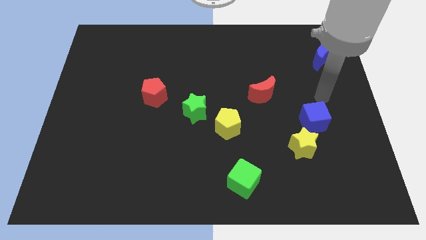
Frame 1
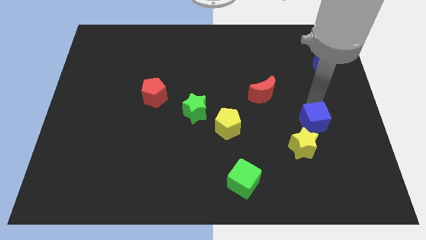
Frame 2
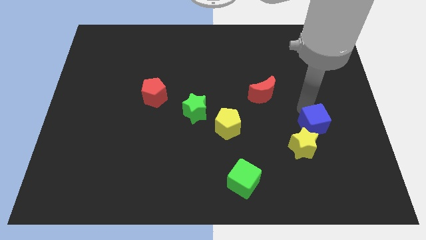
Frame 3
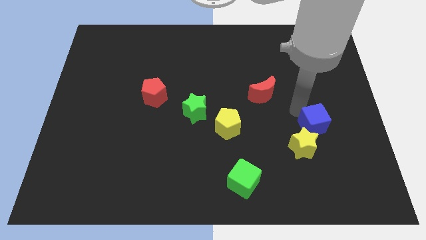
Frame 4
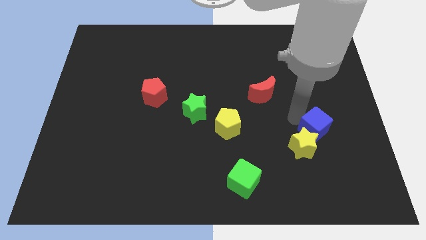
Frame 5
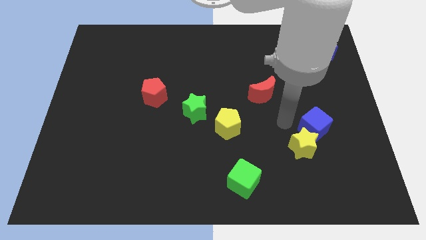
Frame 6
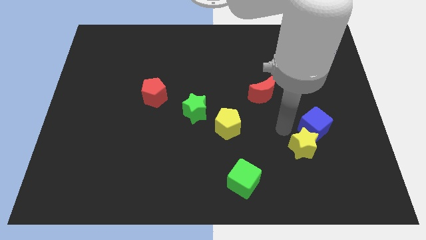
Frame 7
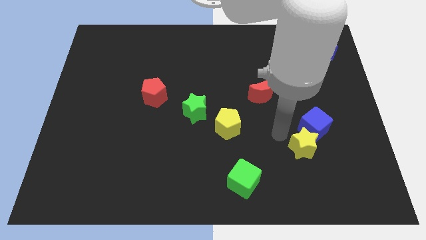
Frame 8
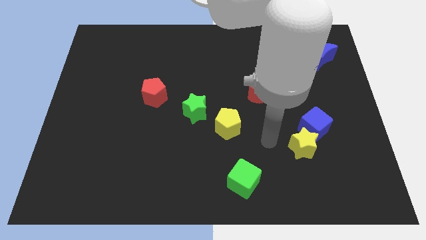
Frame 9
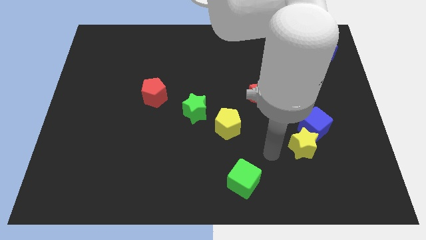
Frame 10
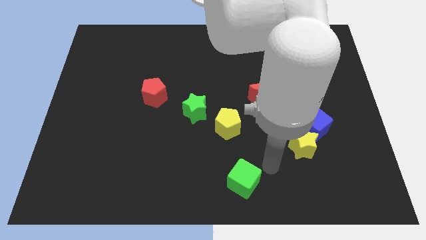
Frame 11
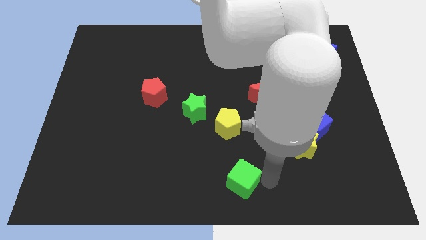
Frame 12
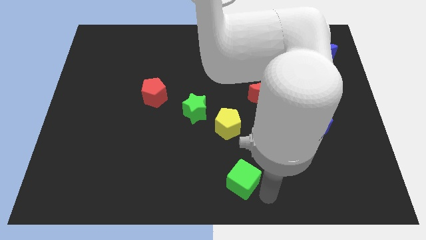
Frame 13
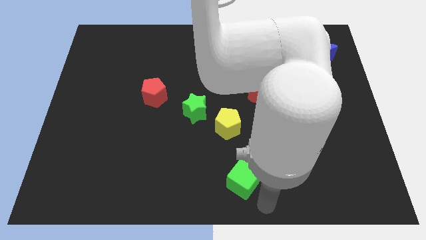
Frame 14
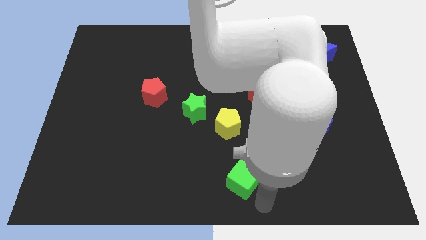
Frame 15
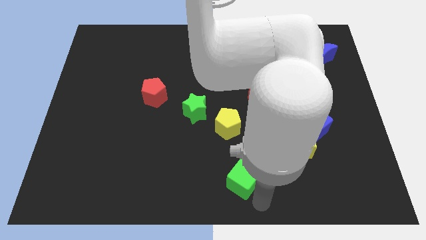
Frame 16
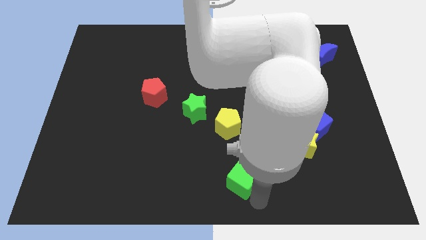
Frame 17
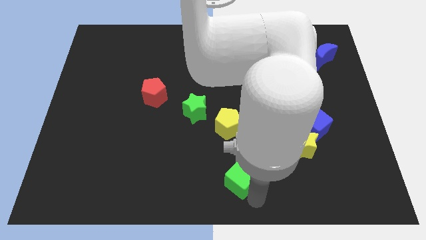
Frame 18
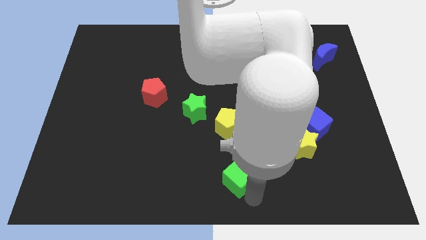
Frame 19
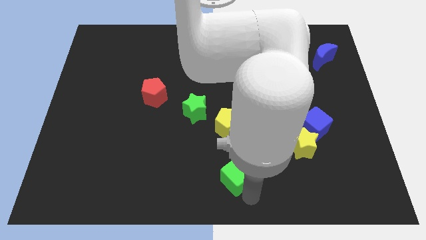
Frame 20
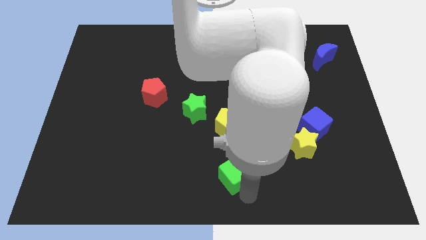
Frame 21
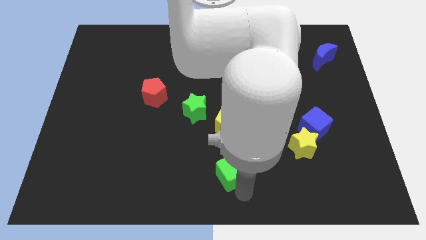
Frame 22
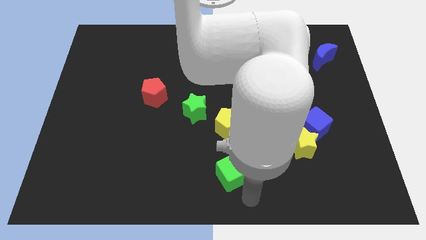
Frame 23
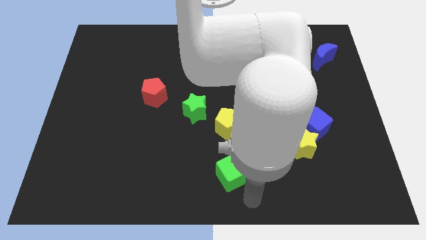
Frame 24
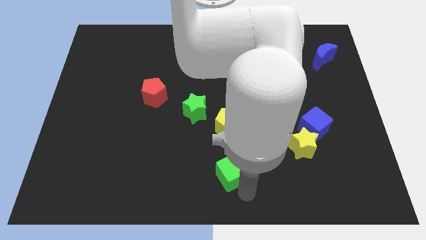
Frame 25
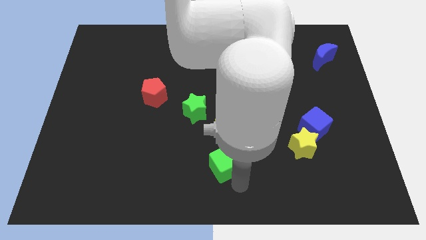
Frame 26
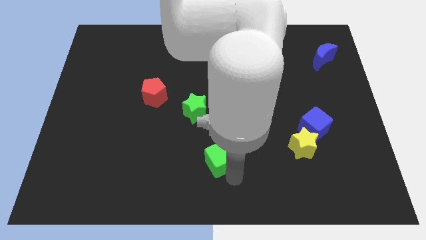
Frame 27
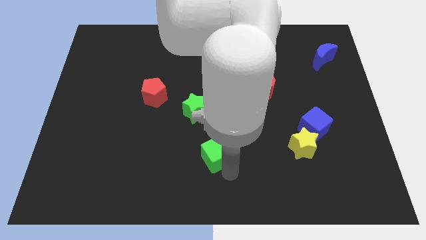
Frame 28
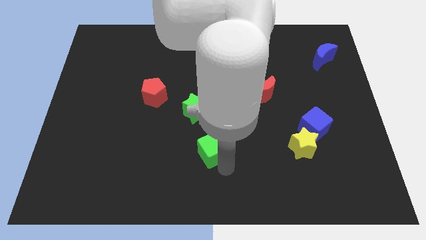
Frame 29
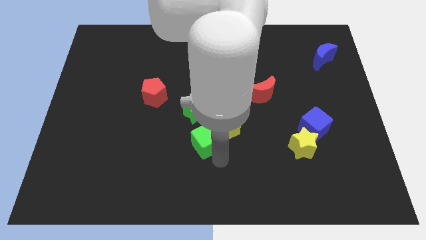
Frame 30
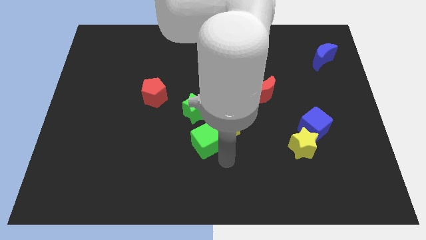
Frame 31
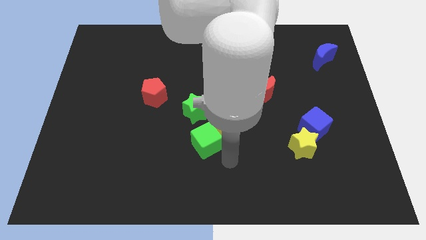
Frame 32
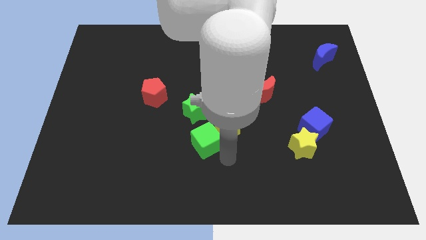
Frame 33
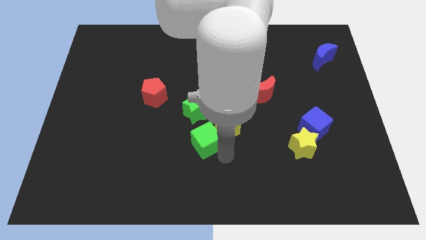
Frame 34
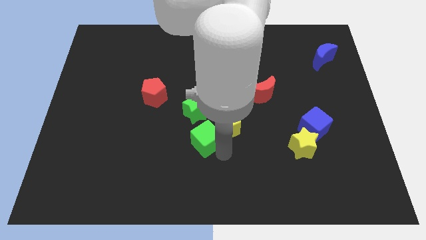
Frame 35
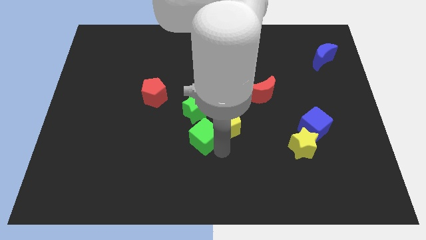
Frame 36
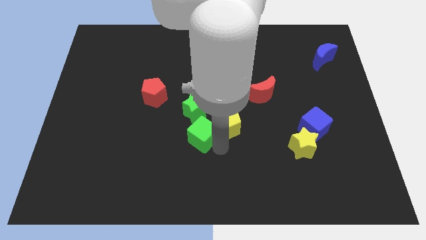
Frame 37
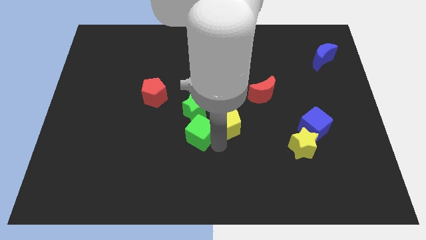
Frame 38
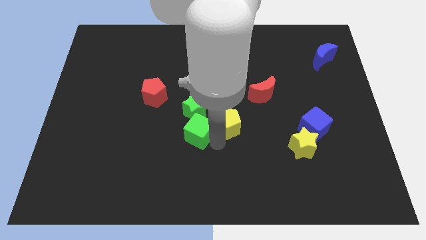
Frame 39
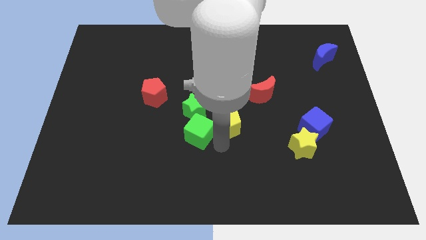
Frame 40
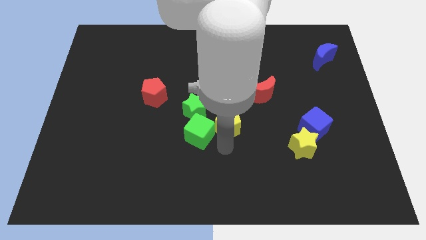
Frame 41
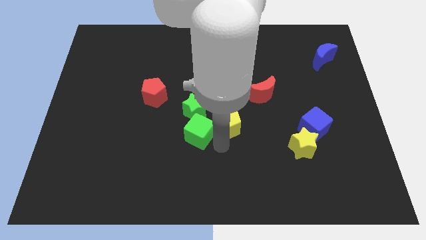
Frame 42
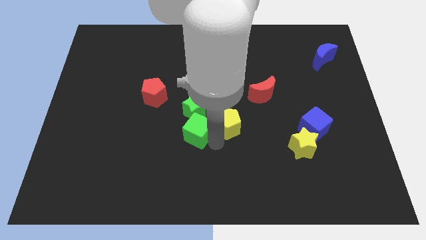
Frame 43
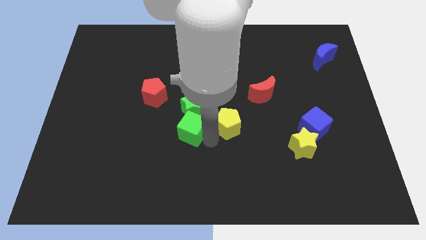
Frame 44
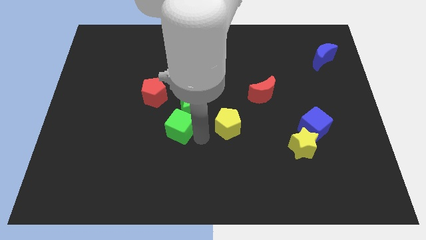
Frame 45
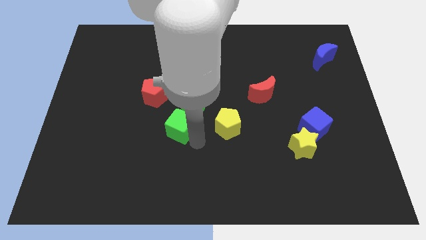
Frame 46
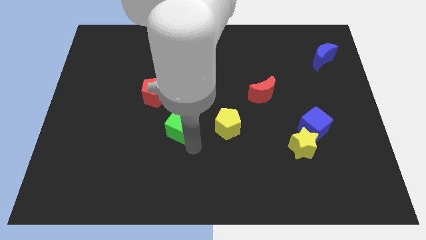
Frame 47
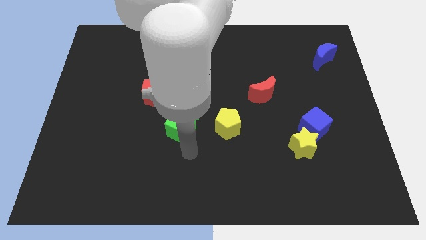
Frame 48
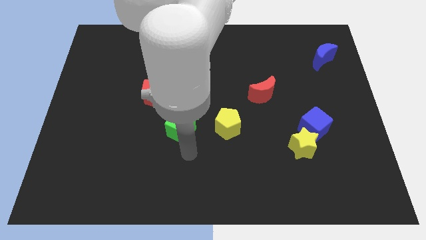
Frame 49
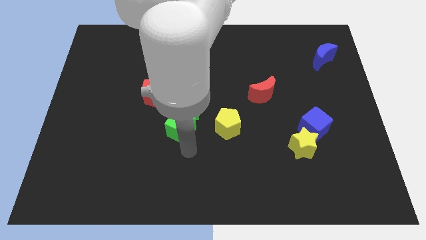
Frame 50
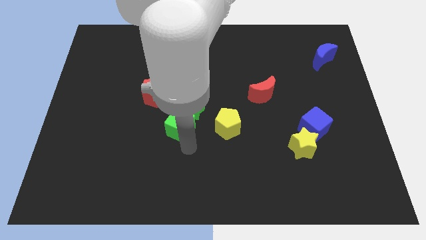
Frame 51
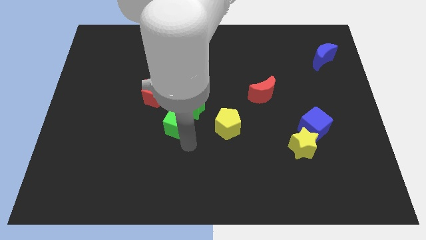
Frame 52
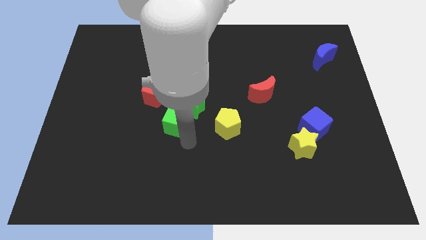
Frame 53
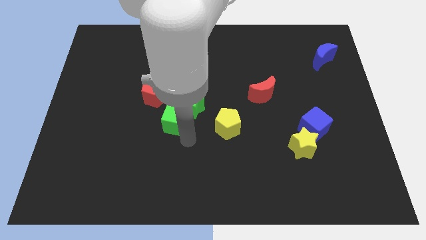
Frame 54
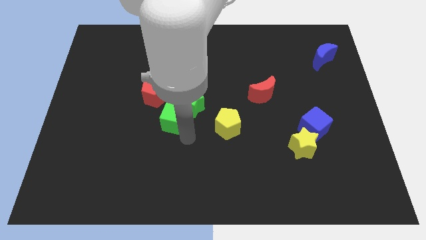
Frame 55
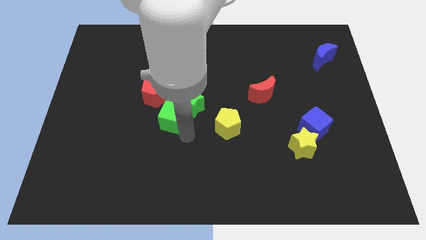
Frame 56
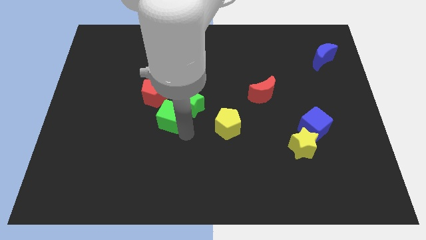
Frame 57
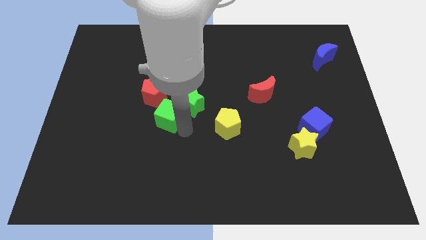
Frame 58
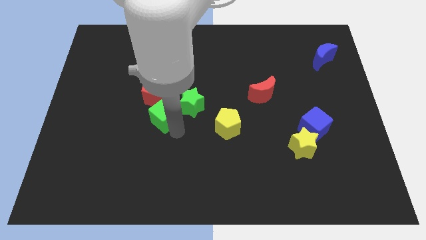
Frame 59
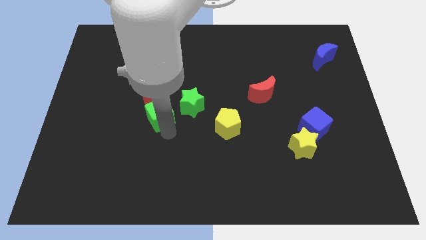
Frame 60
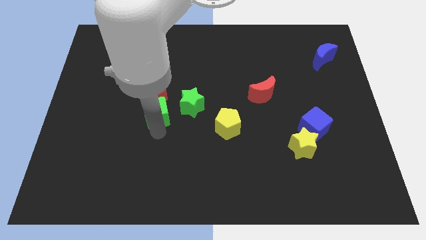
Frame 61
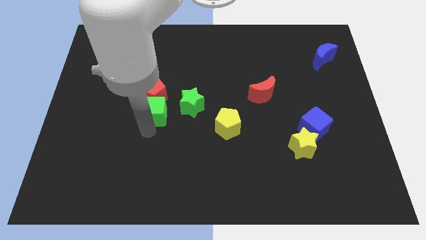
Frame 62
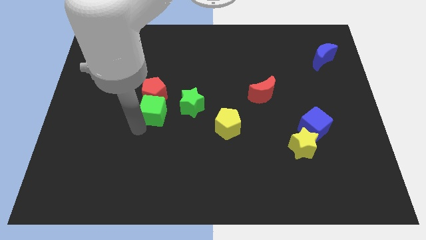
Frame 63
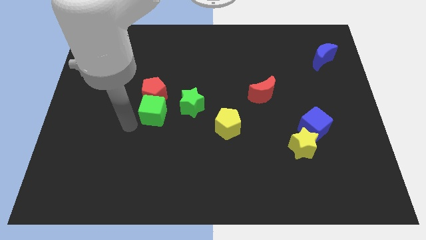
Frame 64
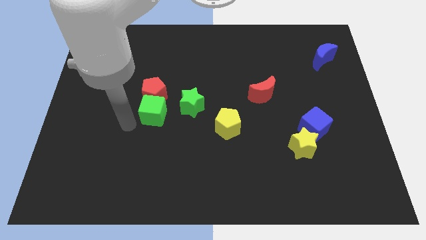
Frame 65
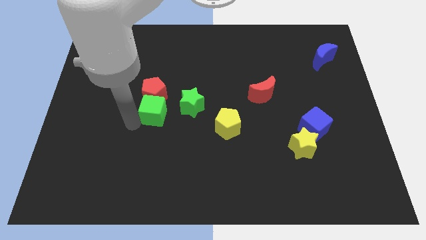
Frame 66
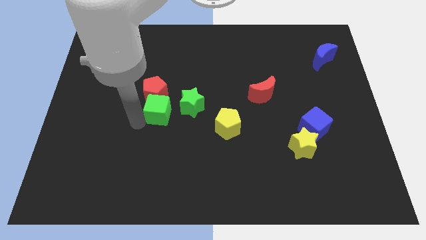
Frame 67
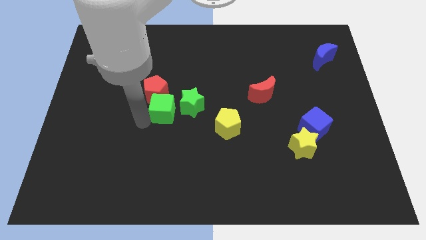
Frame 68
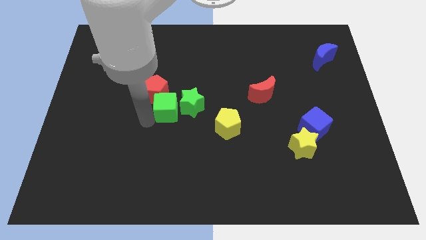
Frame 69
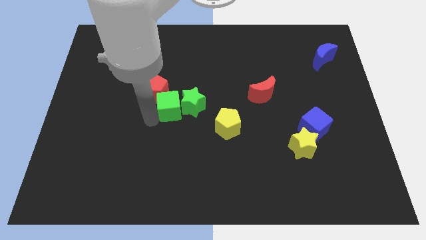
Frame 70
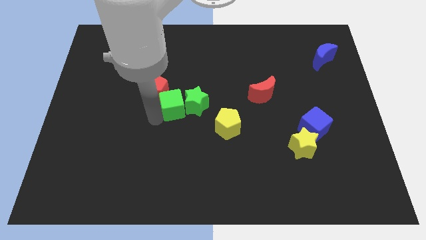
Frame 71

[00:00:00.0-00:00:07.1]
push the green cube just right of the red pentagon
